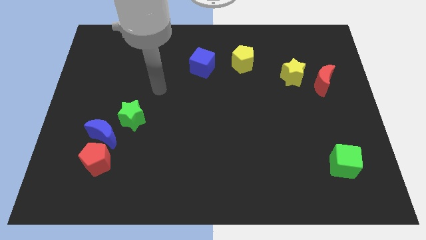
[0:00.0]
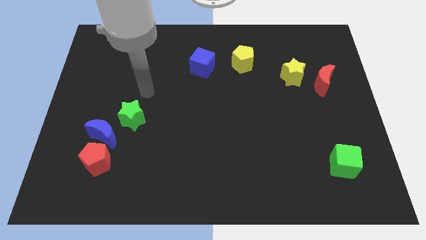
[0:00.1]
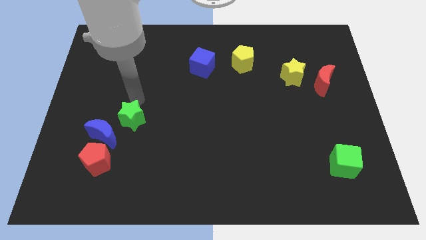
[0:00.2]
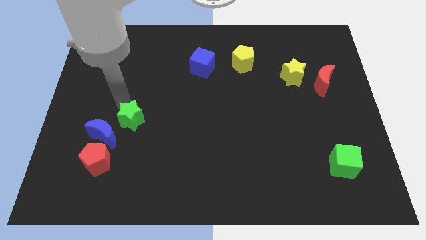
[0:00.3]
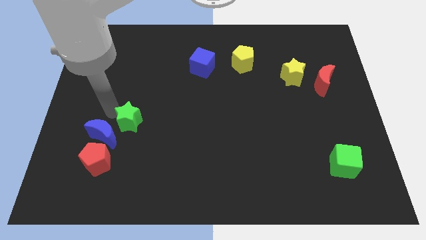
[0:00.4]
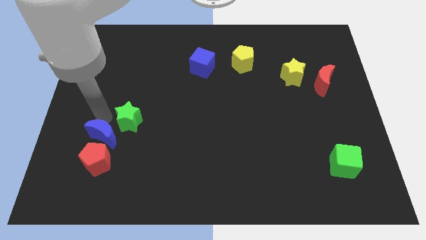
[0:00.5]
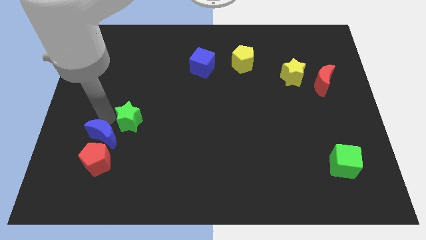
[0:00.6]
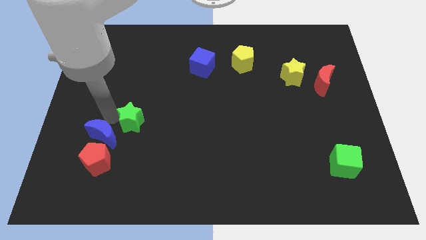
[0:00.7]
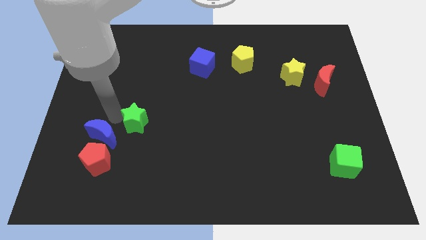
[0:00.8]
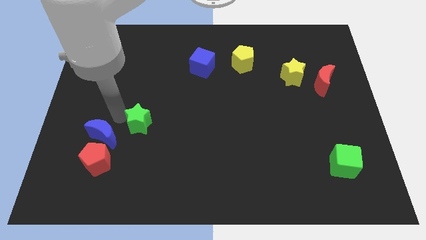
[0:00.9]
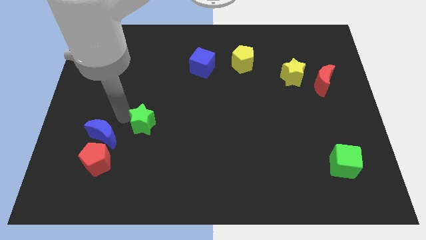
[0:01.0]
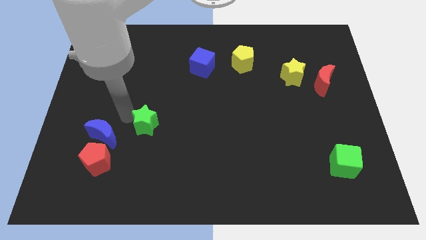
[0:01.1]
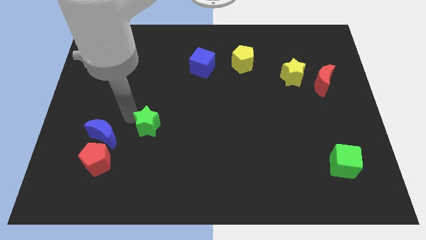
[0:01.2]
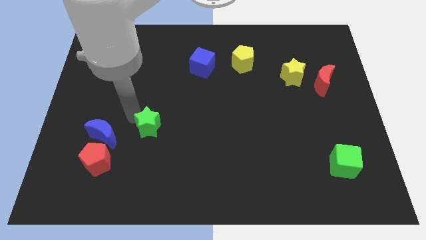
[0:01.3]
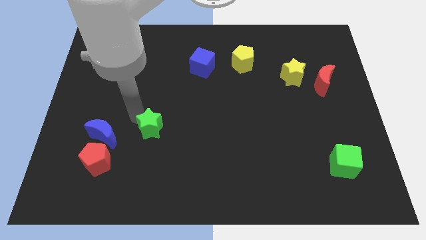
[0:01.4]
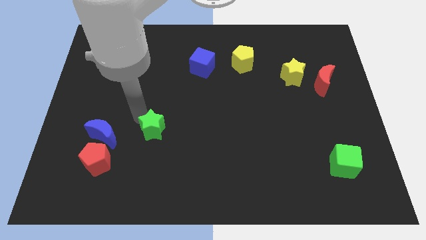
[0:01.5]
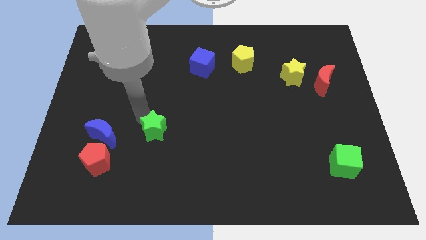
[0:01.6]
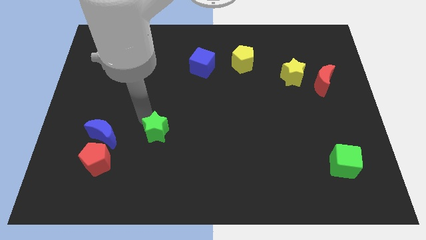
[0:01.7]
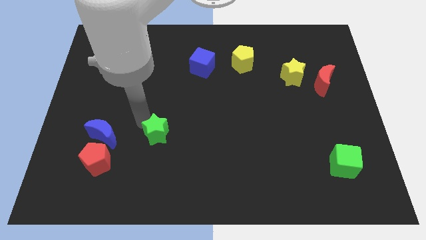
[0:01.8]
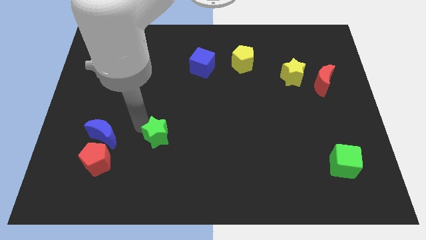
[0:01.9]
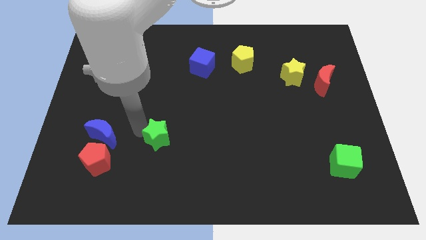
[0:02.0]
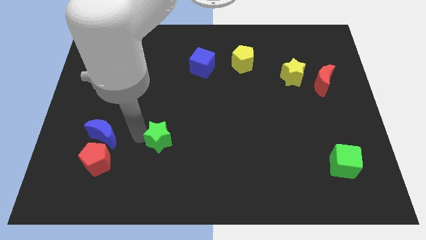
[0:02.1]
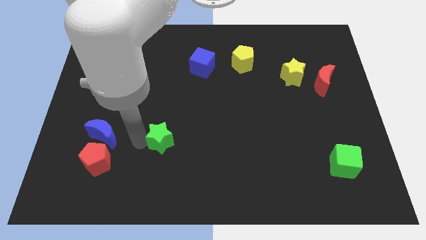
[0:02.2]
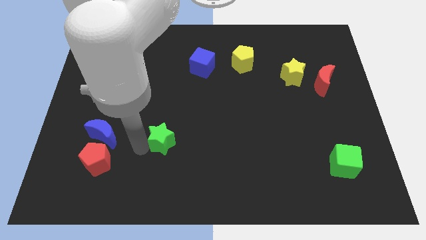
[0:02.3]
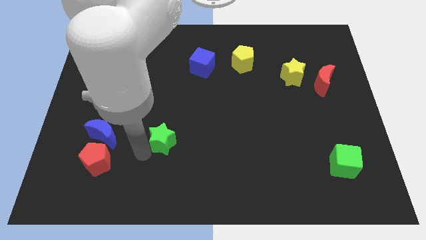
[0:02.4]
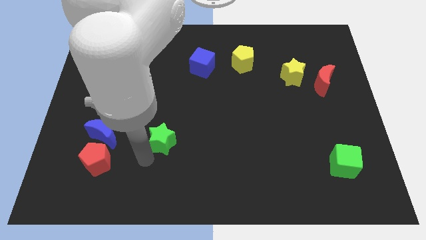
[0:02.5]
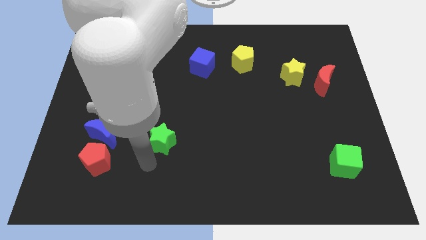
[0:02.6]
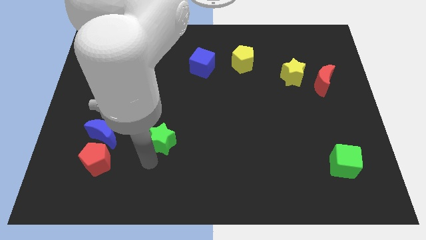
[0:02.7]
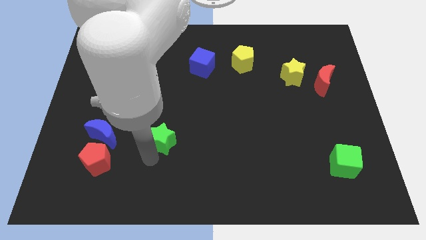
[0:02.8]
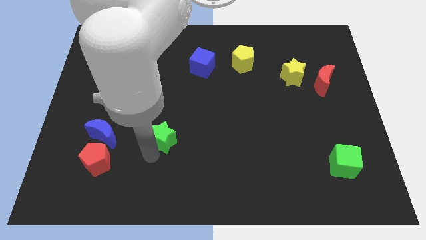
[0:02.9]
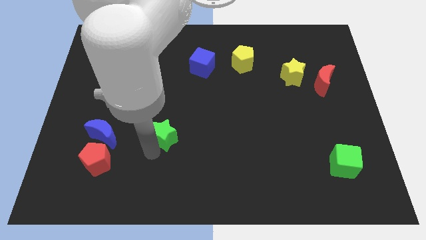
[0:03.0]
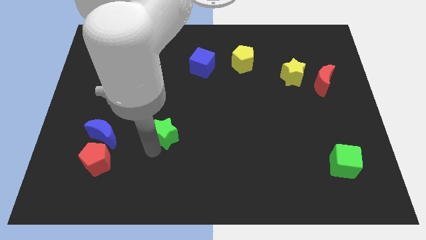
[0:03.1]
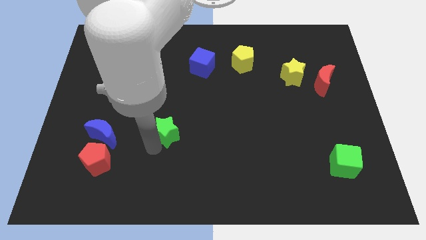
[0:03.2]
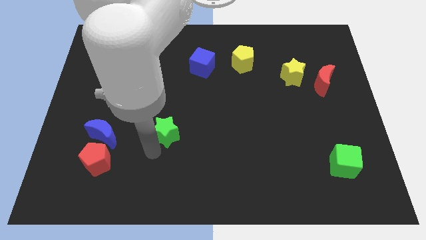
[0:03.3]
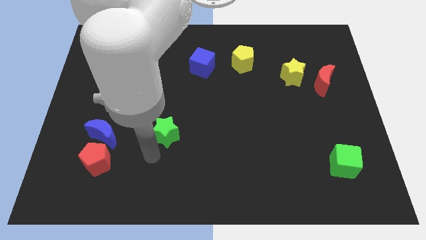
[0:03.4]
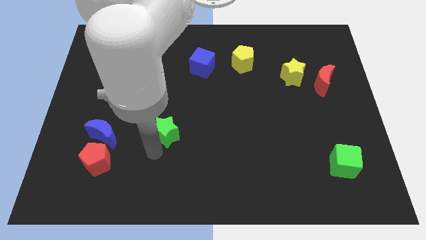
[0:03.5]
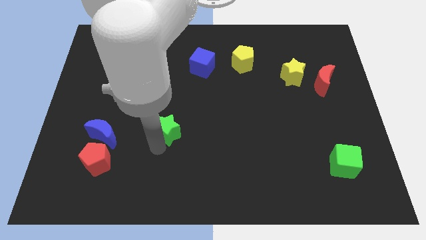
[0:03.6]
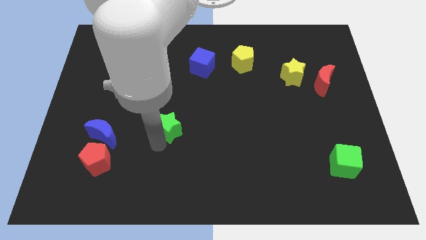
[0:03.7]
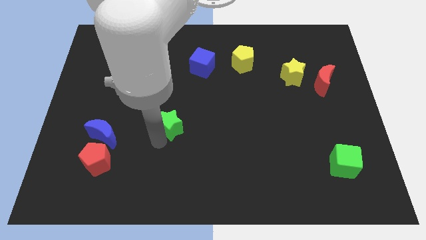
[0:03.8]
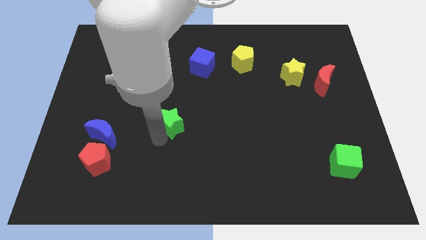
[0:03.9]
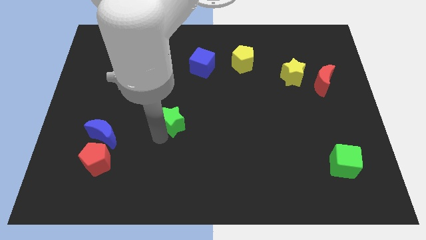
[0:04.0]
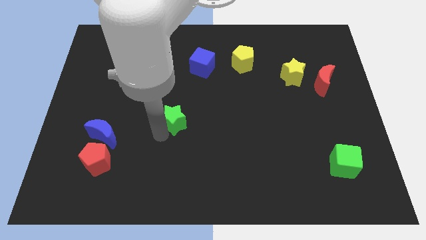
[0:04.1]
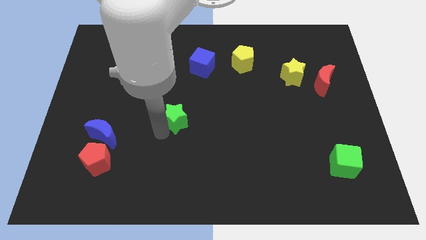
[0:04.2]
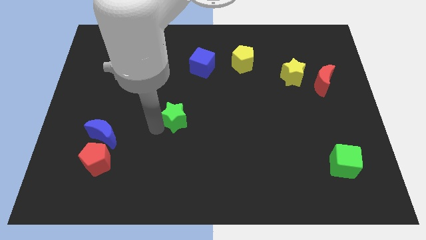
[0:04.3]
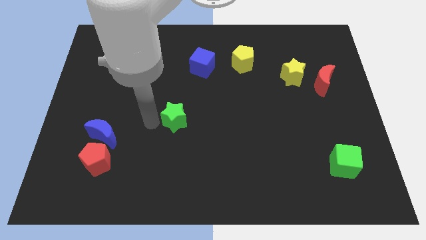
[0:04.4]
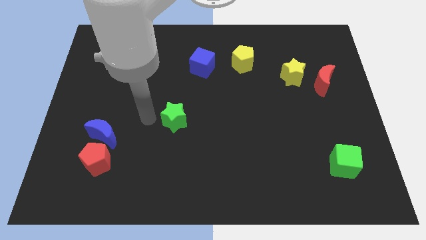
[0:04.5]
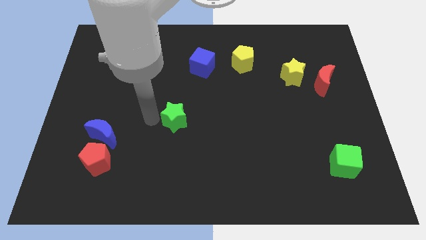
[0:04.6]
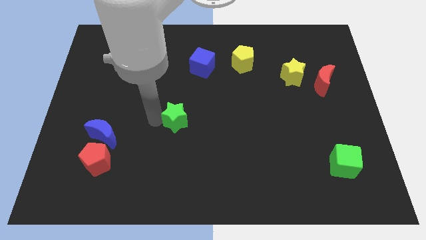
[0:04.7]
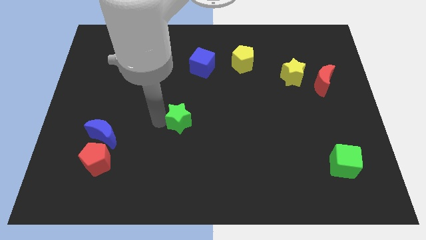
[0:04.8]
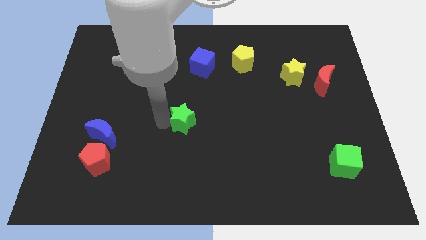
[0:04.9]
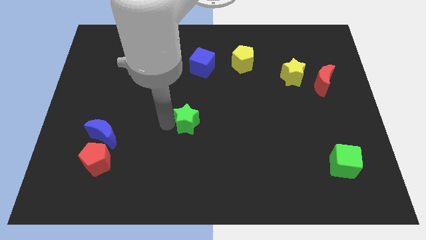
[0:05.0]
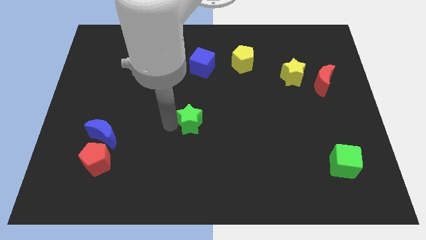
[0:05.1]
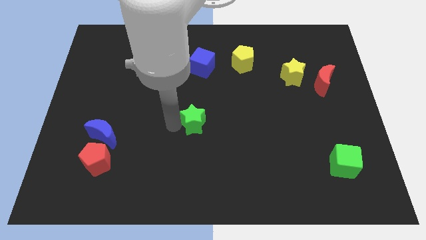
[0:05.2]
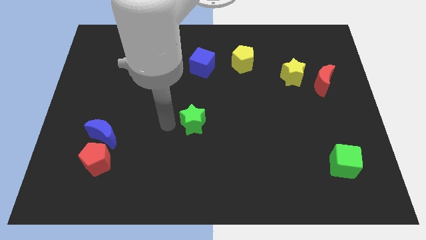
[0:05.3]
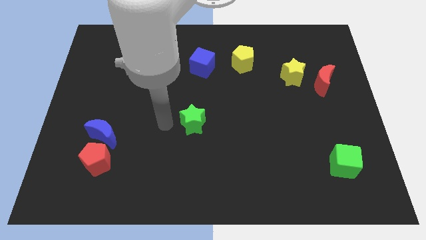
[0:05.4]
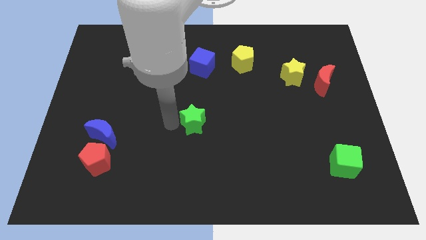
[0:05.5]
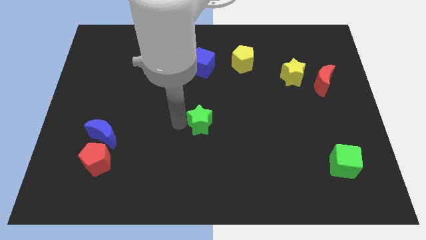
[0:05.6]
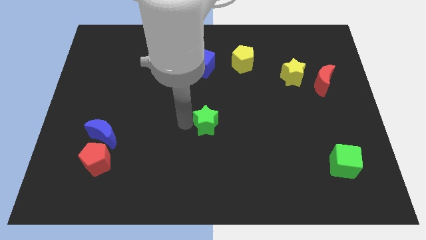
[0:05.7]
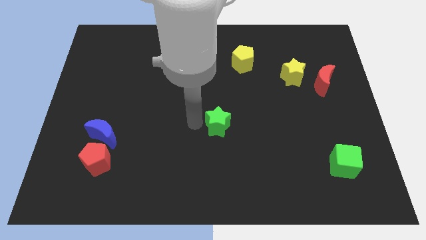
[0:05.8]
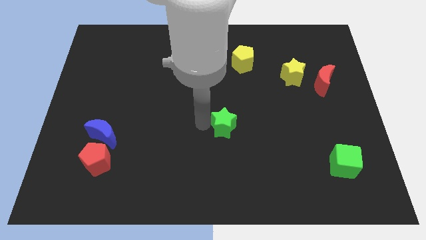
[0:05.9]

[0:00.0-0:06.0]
move the green star right

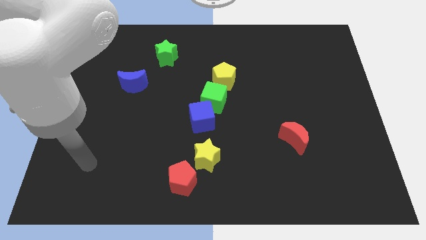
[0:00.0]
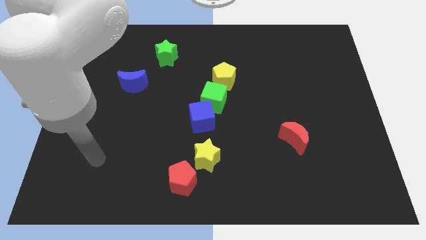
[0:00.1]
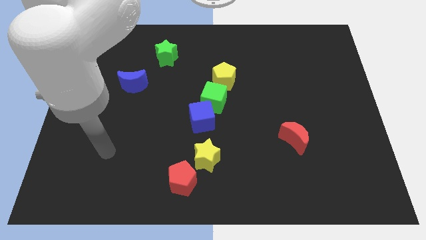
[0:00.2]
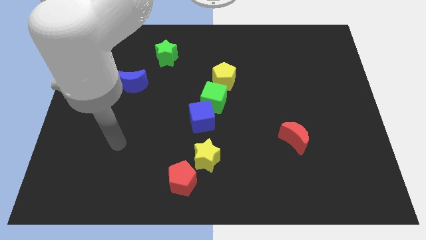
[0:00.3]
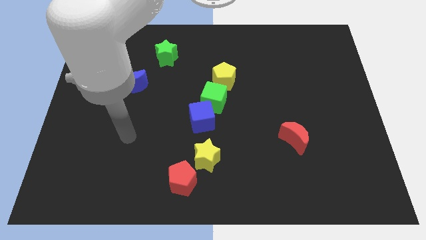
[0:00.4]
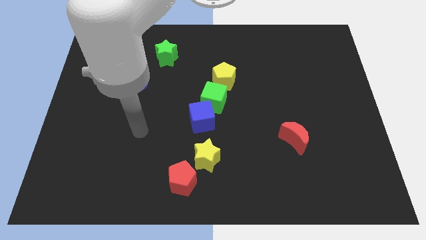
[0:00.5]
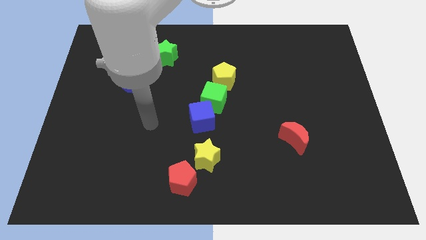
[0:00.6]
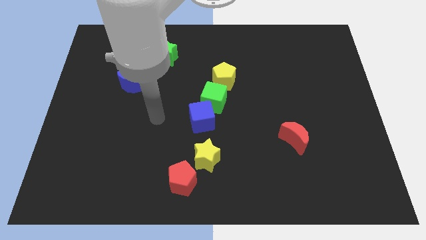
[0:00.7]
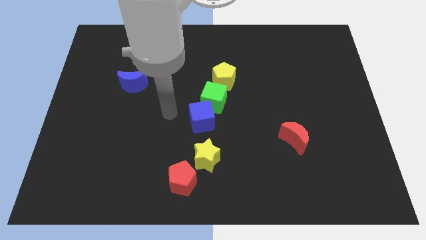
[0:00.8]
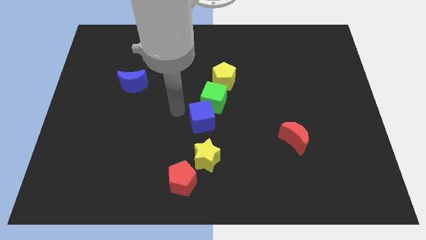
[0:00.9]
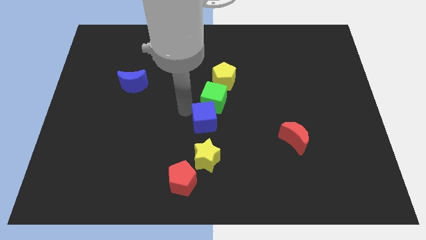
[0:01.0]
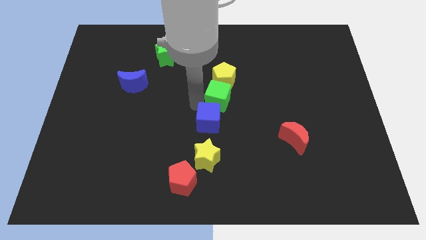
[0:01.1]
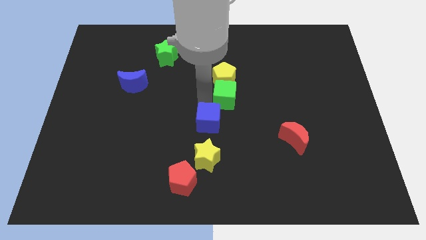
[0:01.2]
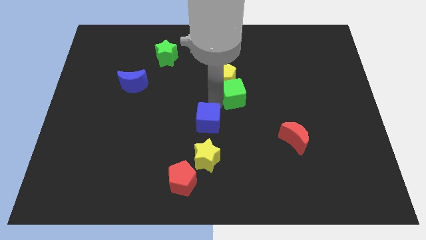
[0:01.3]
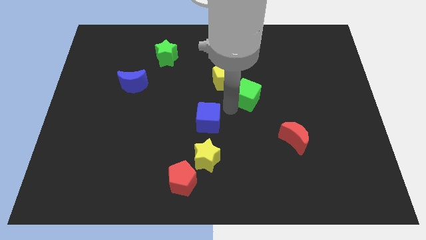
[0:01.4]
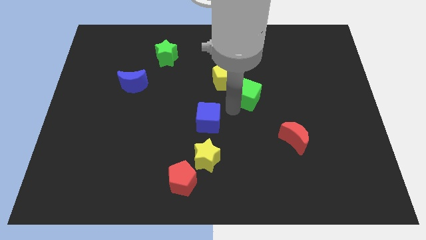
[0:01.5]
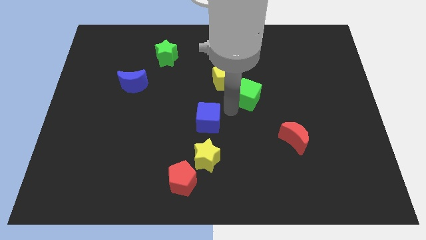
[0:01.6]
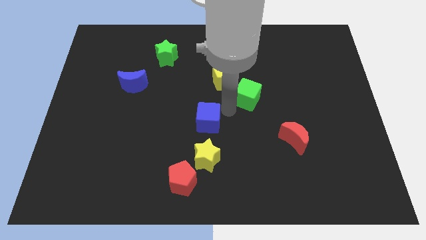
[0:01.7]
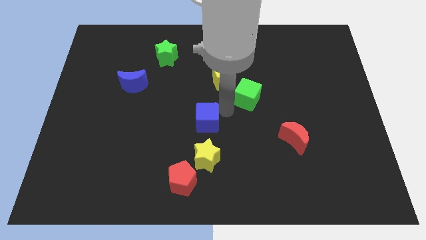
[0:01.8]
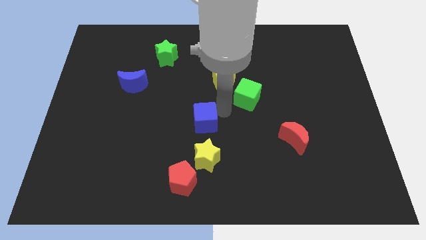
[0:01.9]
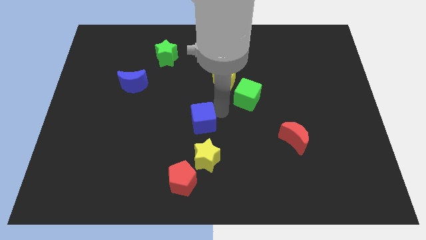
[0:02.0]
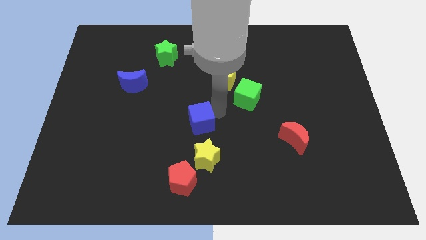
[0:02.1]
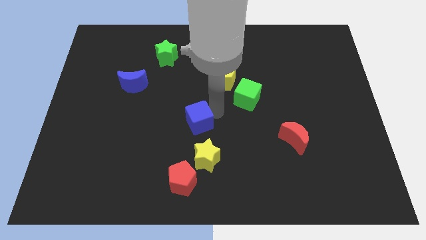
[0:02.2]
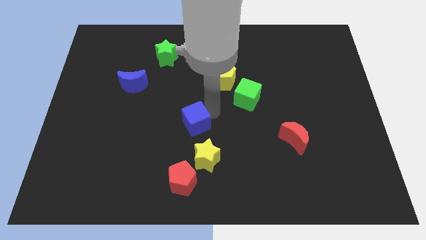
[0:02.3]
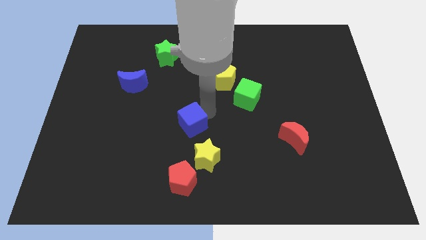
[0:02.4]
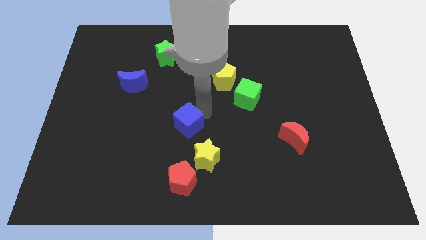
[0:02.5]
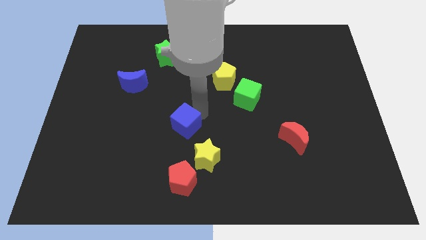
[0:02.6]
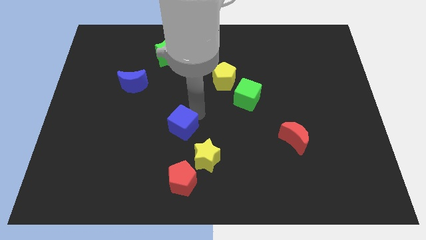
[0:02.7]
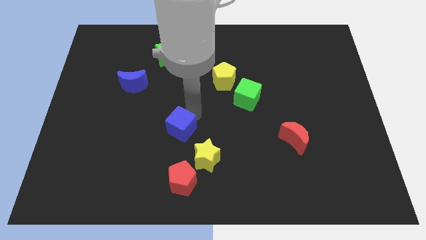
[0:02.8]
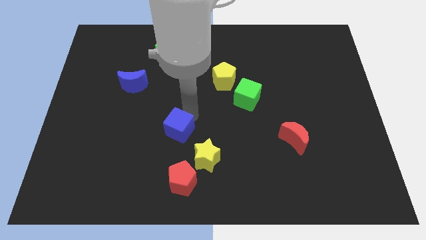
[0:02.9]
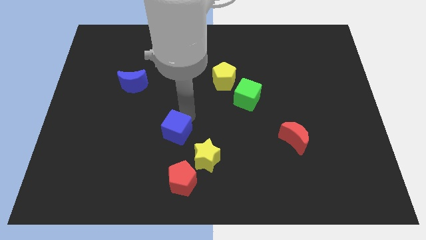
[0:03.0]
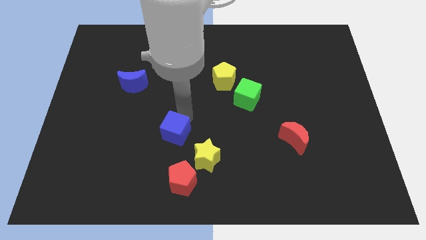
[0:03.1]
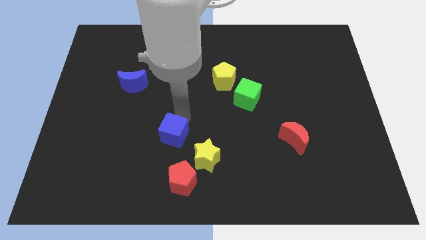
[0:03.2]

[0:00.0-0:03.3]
move the blue cube down and left diagonally a little bit
